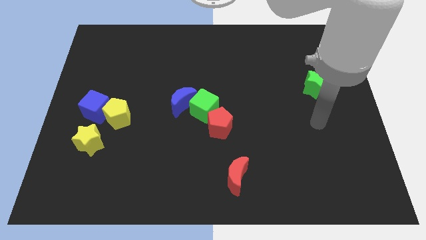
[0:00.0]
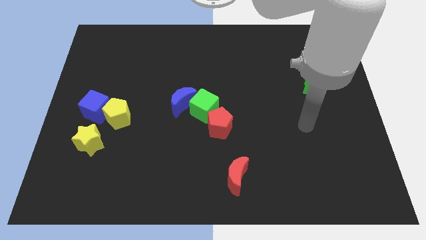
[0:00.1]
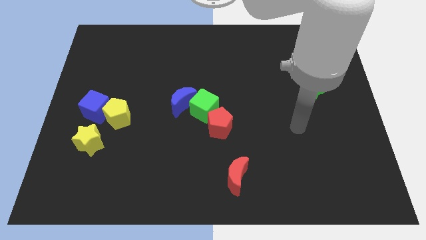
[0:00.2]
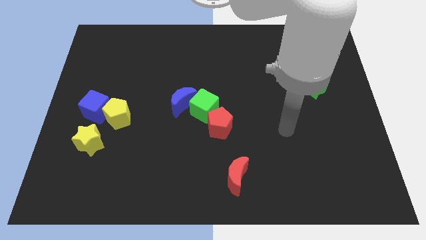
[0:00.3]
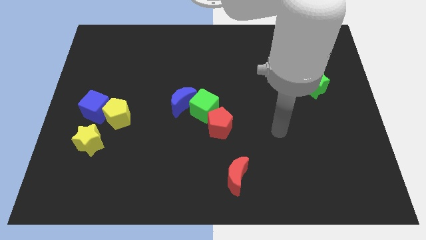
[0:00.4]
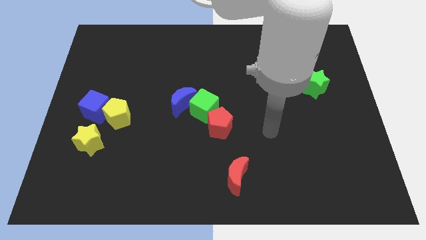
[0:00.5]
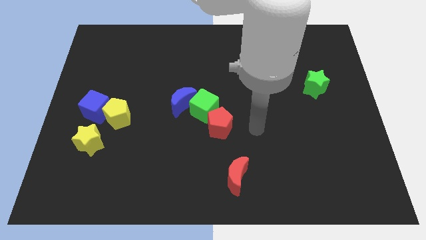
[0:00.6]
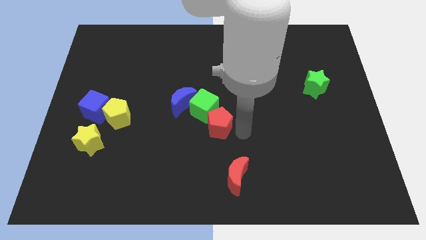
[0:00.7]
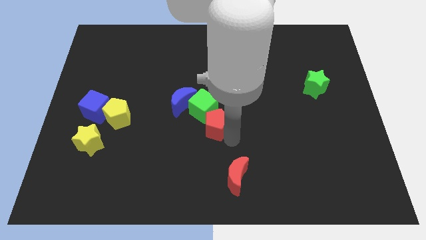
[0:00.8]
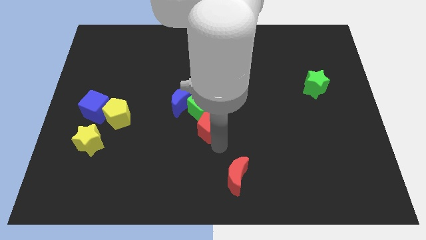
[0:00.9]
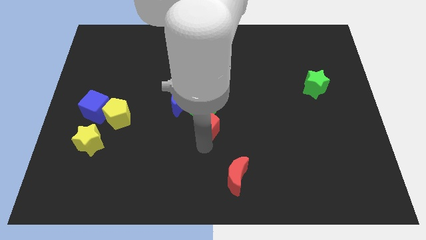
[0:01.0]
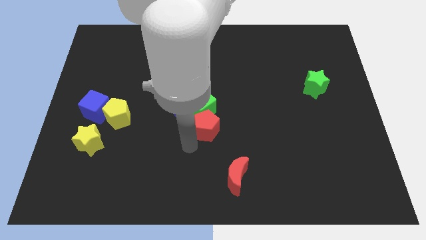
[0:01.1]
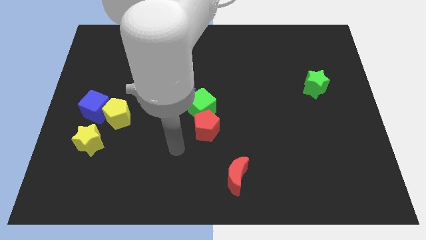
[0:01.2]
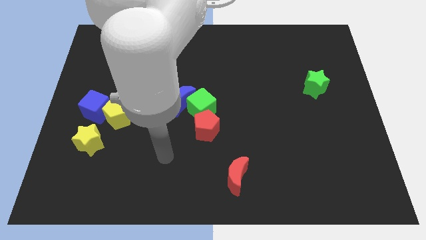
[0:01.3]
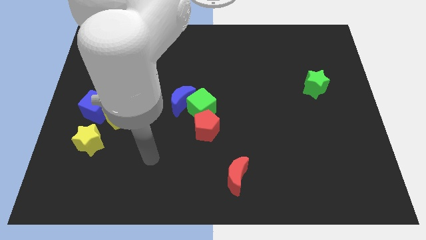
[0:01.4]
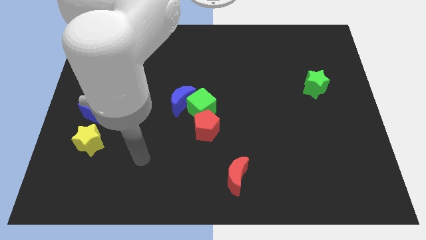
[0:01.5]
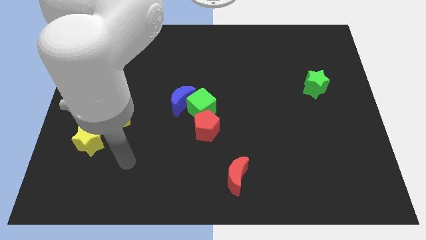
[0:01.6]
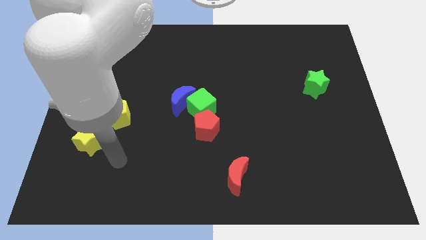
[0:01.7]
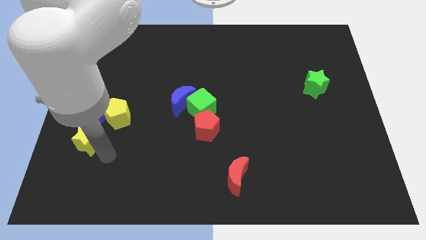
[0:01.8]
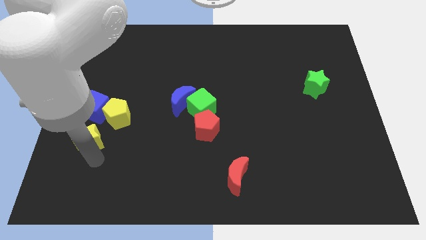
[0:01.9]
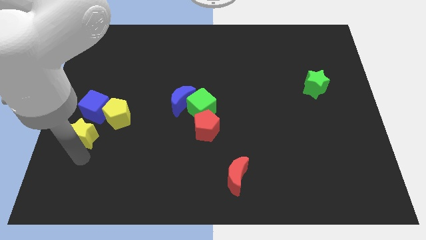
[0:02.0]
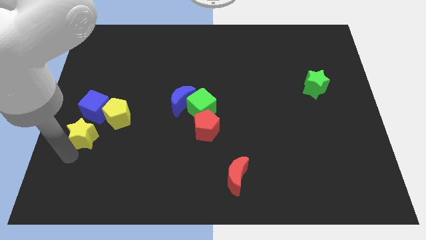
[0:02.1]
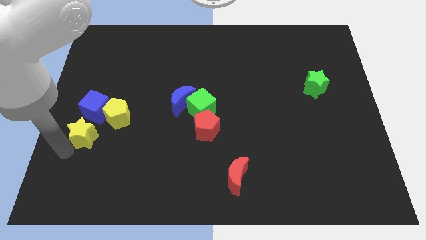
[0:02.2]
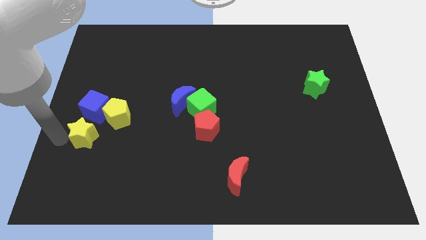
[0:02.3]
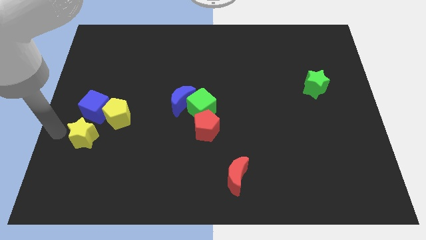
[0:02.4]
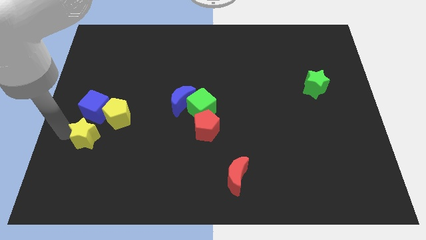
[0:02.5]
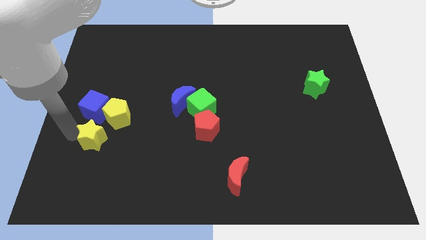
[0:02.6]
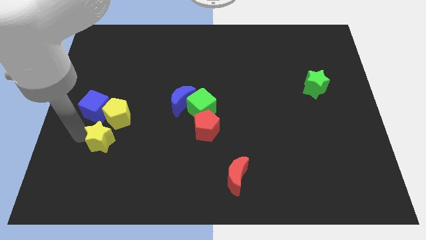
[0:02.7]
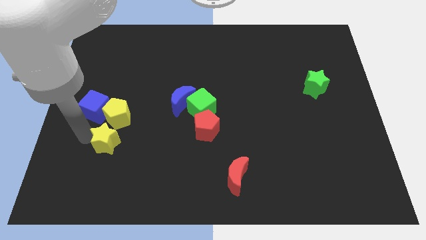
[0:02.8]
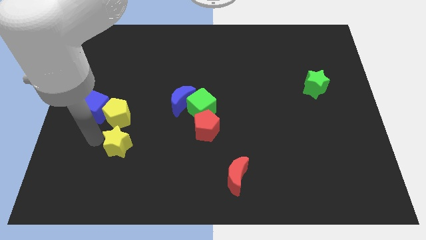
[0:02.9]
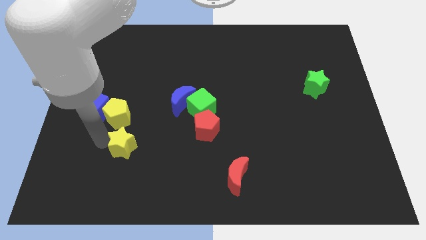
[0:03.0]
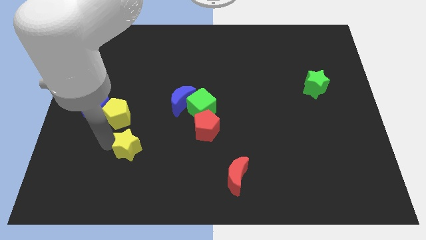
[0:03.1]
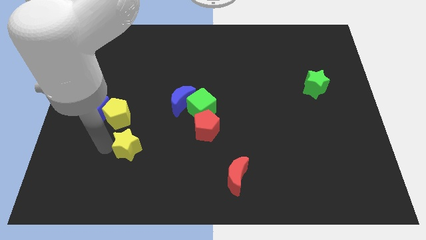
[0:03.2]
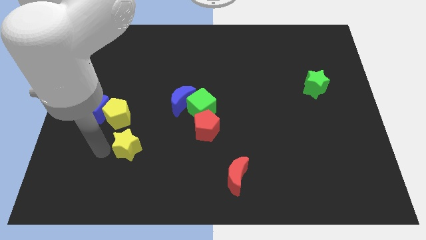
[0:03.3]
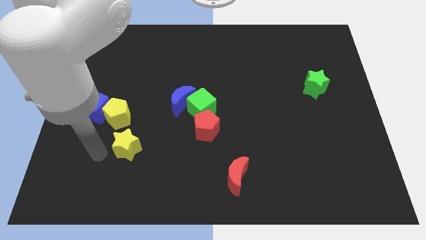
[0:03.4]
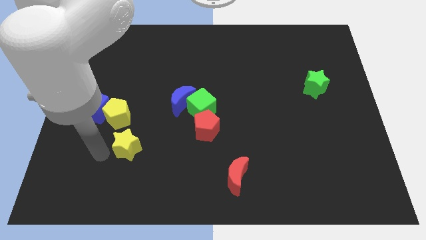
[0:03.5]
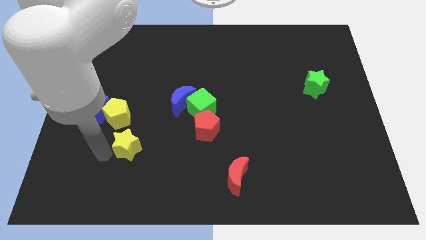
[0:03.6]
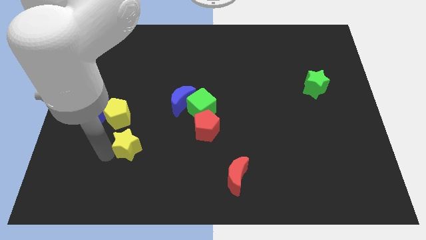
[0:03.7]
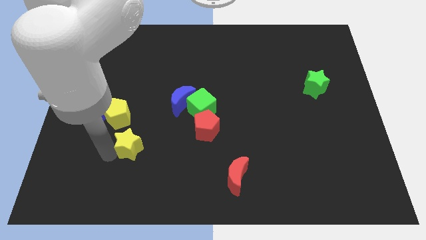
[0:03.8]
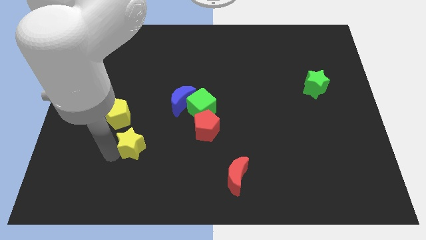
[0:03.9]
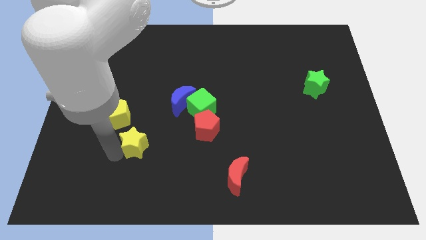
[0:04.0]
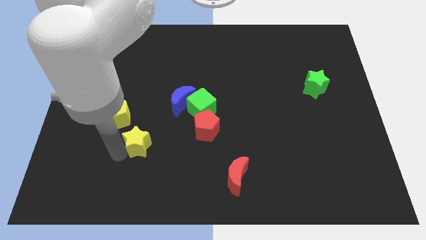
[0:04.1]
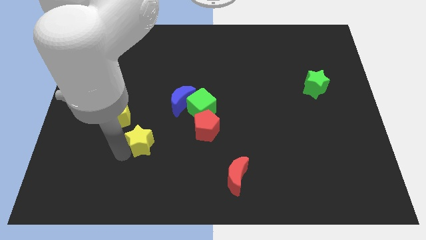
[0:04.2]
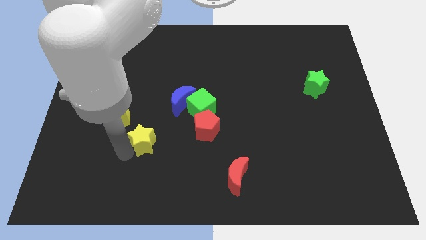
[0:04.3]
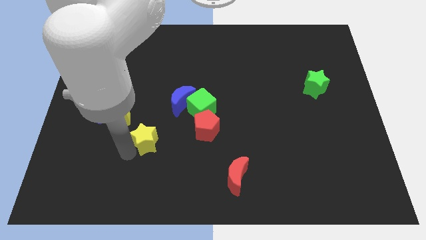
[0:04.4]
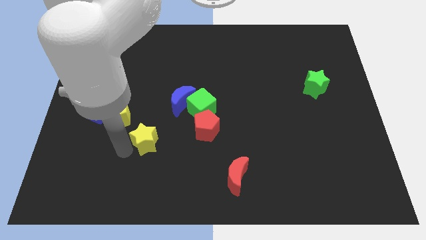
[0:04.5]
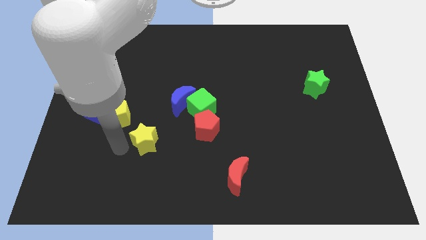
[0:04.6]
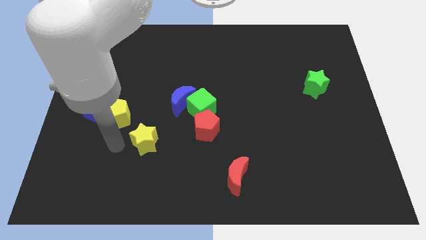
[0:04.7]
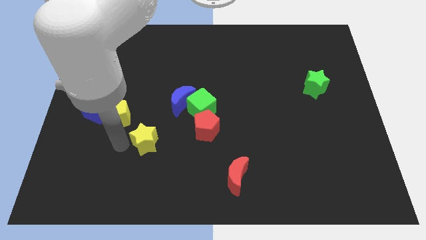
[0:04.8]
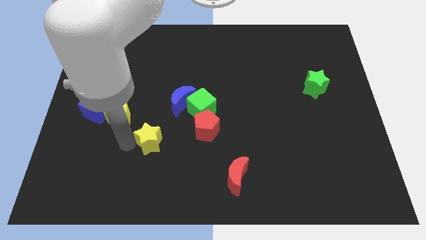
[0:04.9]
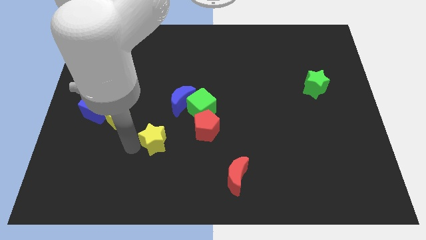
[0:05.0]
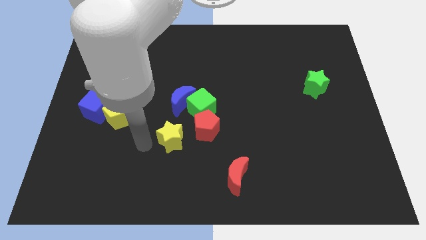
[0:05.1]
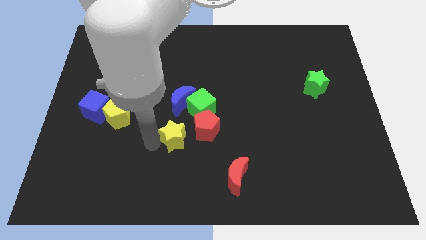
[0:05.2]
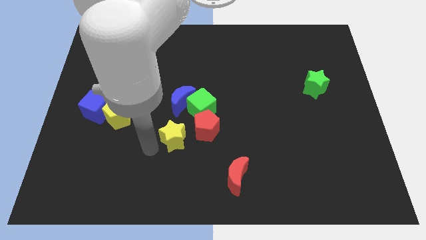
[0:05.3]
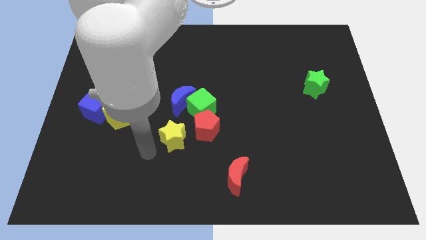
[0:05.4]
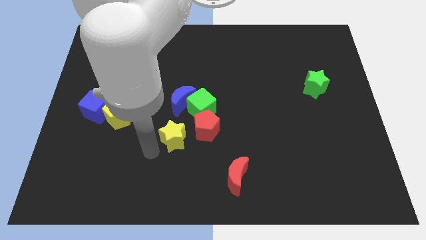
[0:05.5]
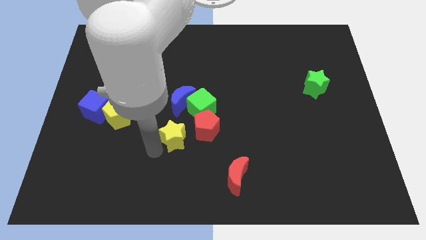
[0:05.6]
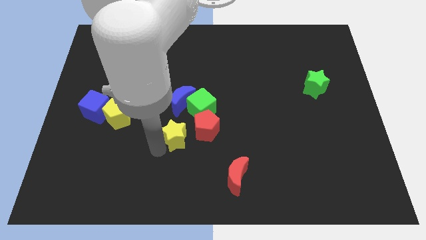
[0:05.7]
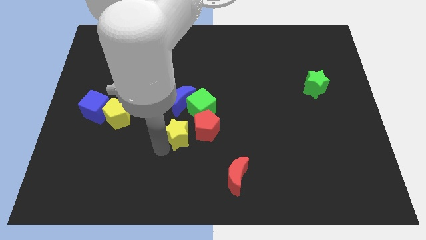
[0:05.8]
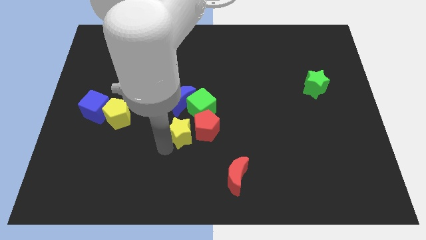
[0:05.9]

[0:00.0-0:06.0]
push the yellow star close to the red pentagon

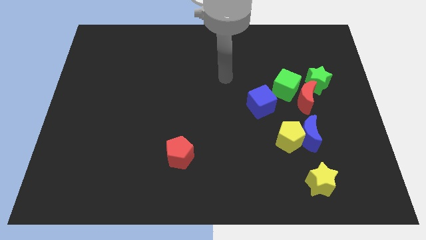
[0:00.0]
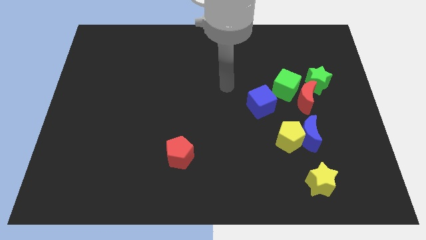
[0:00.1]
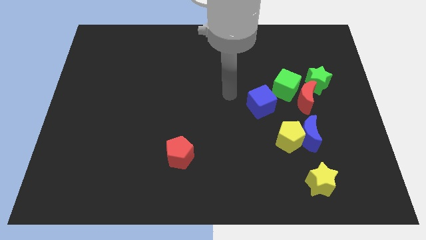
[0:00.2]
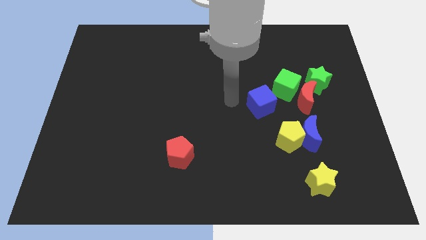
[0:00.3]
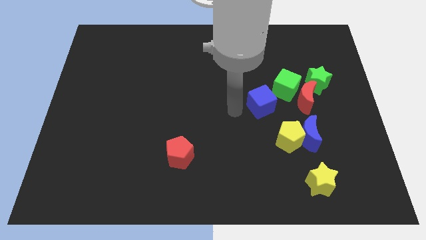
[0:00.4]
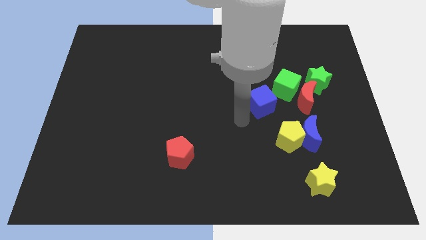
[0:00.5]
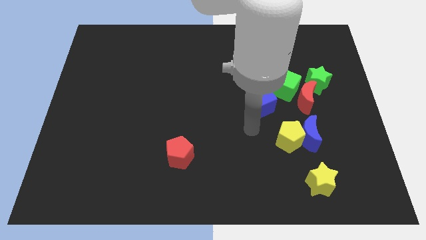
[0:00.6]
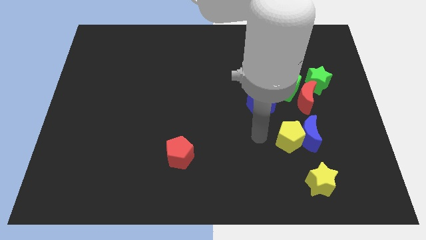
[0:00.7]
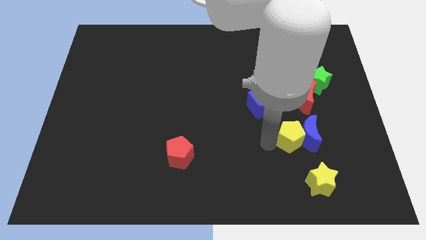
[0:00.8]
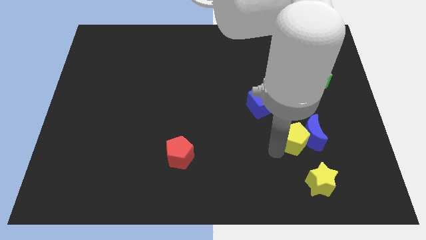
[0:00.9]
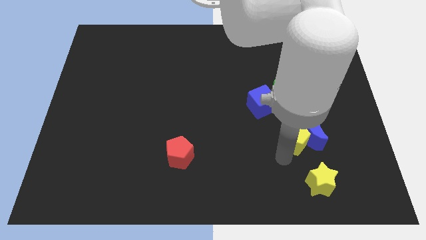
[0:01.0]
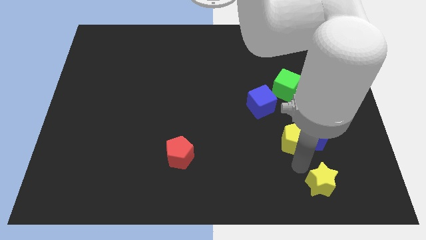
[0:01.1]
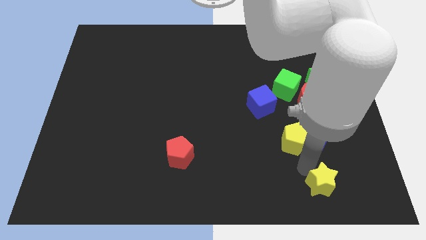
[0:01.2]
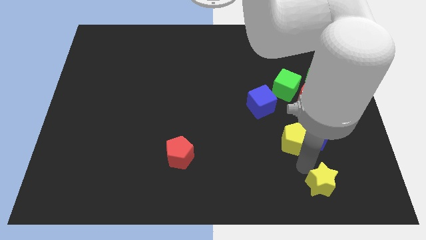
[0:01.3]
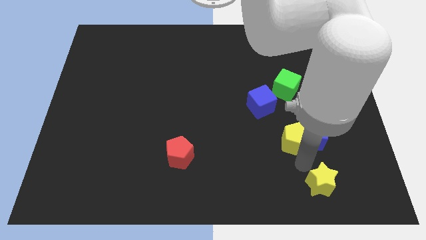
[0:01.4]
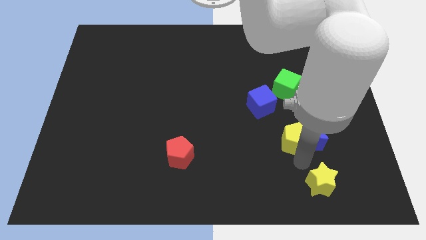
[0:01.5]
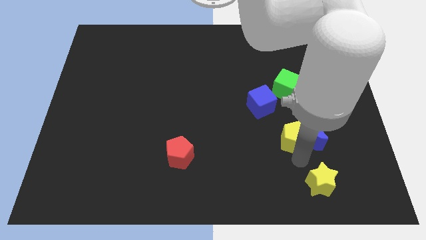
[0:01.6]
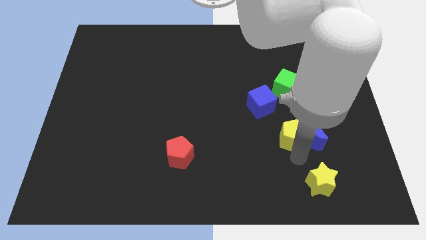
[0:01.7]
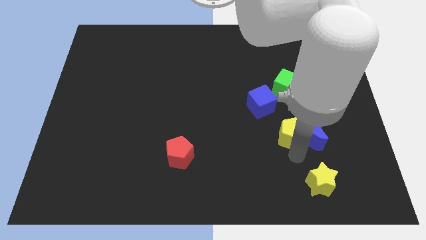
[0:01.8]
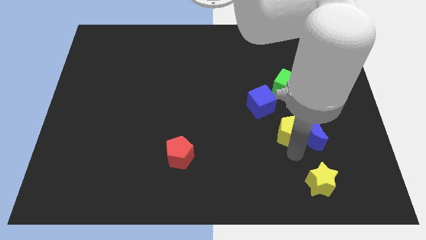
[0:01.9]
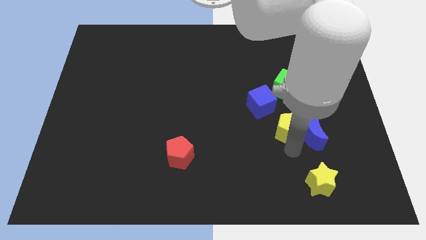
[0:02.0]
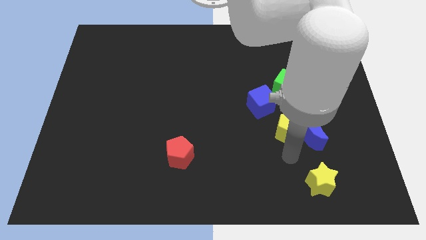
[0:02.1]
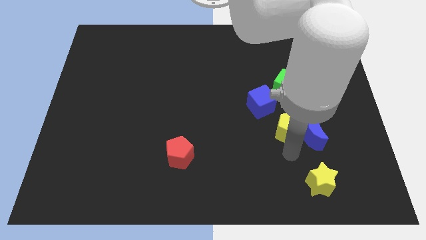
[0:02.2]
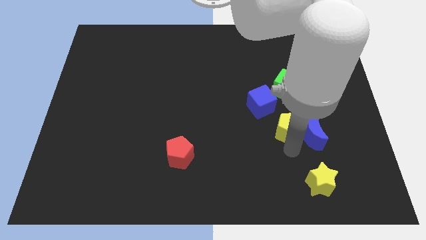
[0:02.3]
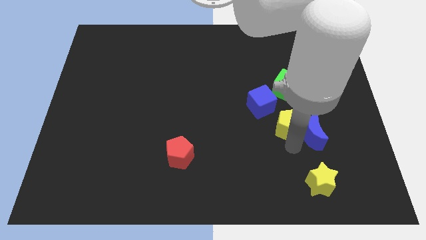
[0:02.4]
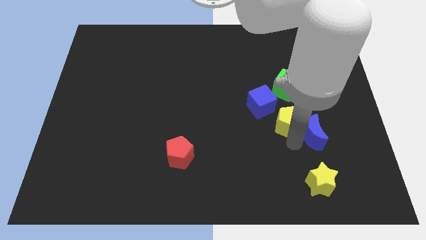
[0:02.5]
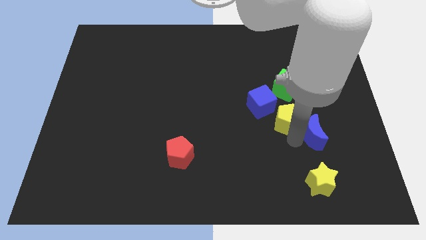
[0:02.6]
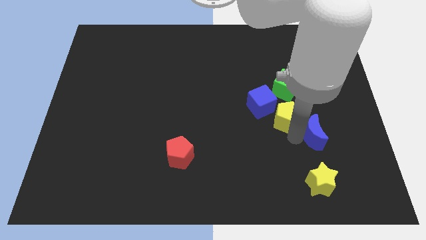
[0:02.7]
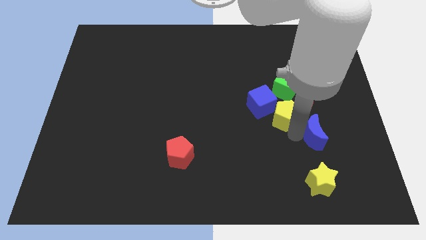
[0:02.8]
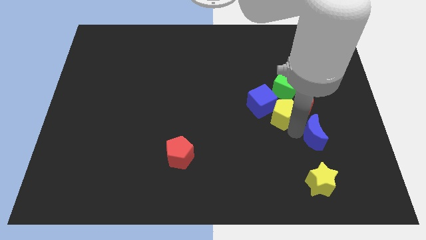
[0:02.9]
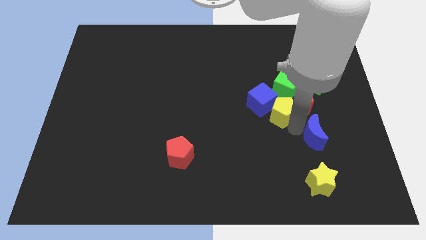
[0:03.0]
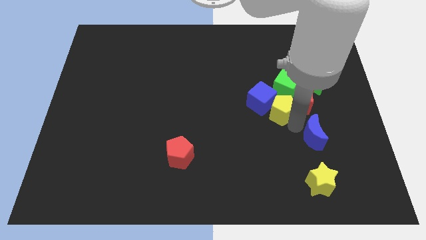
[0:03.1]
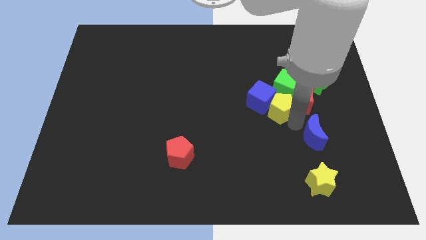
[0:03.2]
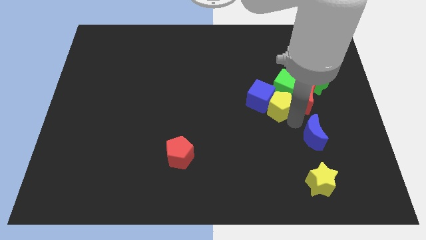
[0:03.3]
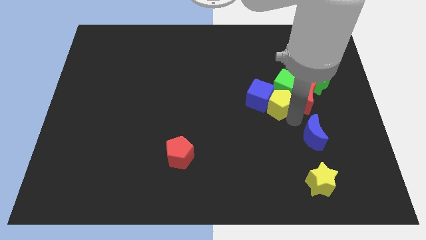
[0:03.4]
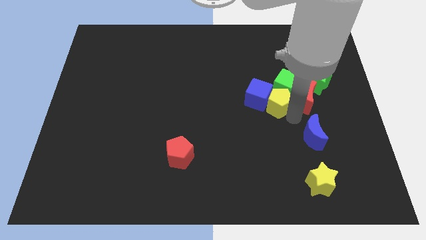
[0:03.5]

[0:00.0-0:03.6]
slide the yellow pentagon close to the green cube
